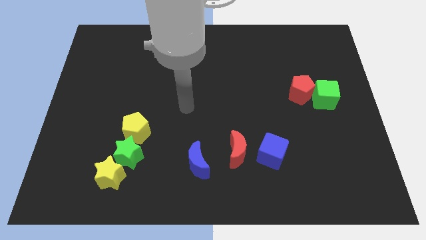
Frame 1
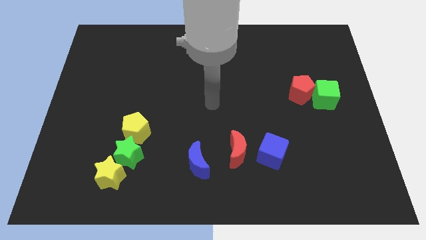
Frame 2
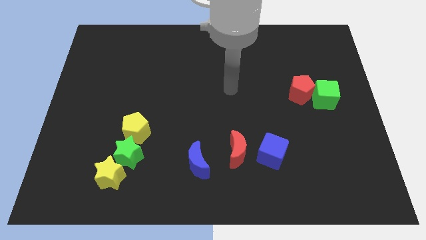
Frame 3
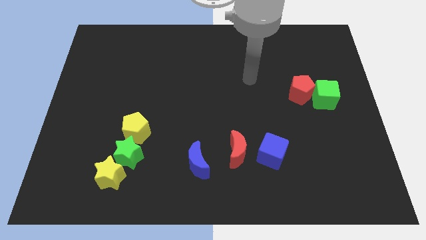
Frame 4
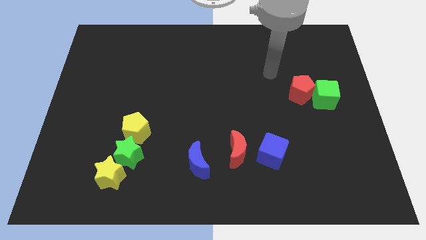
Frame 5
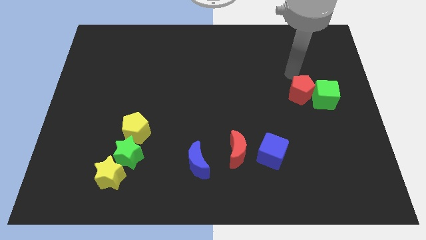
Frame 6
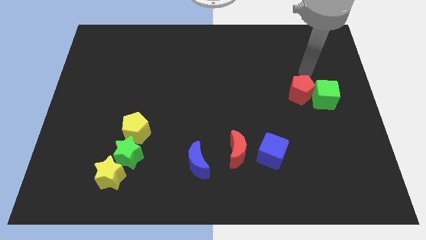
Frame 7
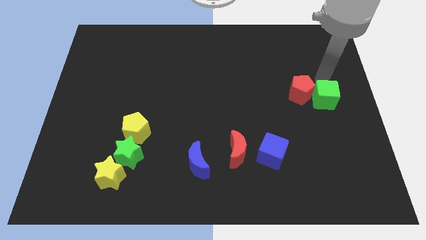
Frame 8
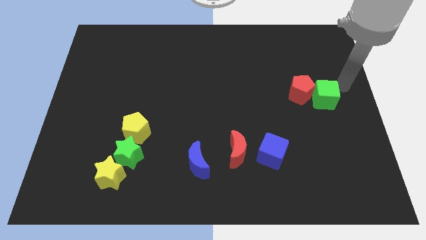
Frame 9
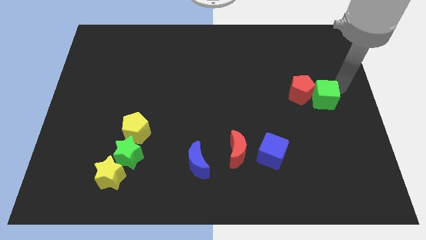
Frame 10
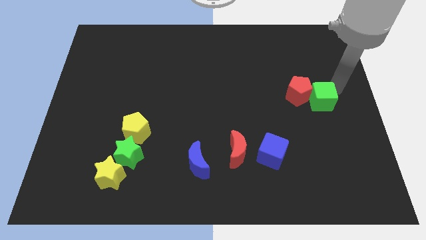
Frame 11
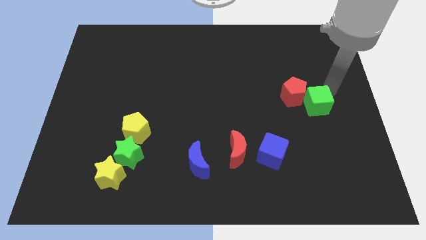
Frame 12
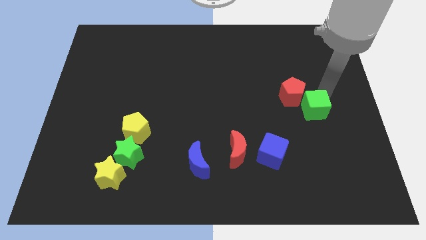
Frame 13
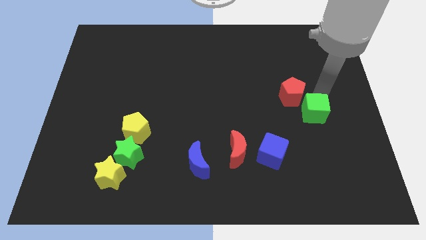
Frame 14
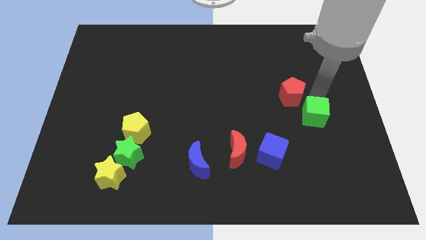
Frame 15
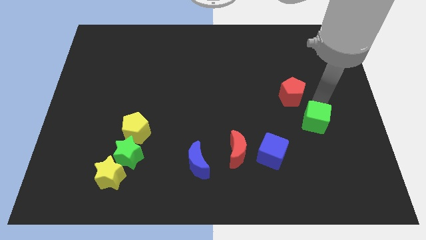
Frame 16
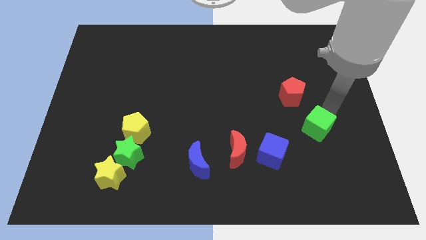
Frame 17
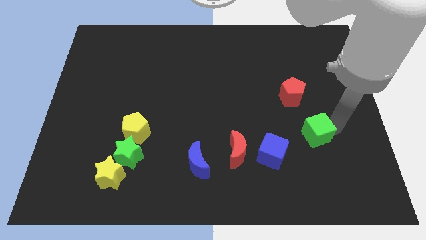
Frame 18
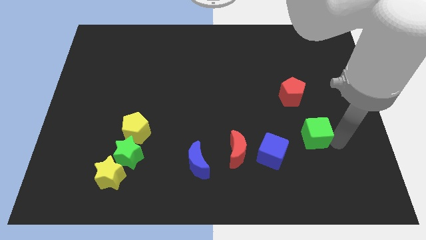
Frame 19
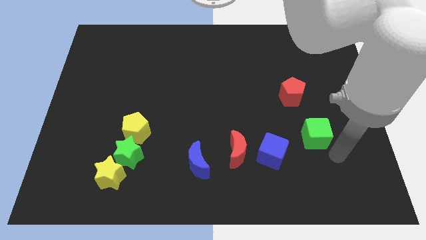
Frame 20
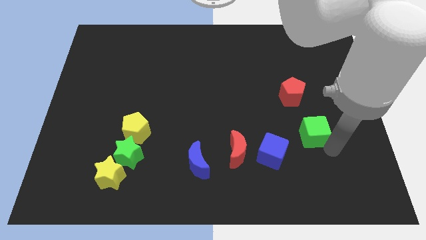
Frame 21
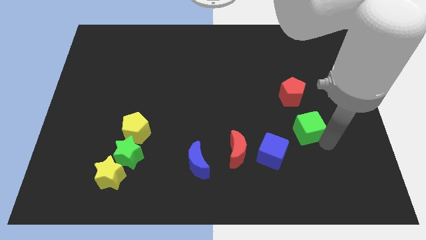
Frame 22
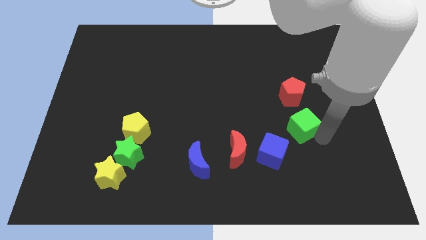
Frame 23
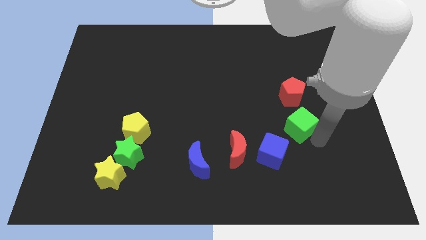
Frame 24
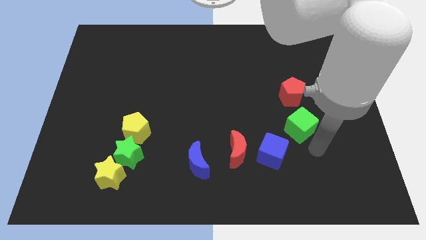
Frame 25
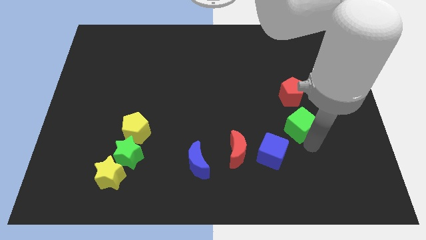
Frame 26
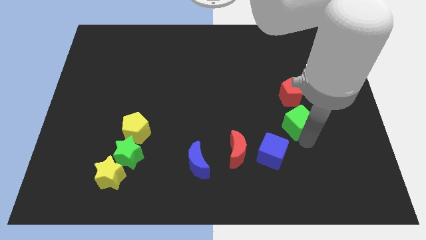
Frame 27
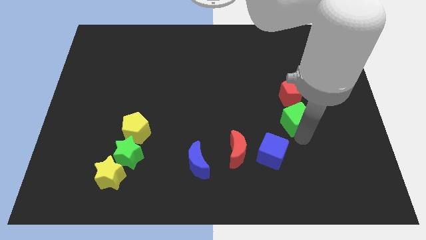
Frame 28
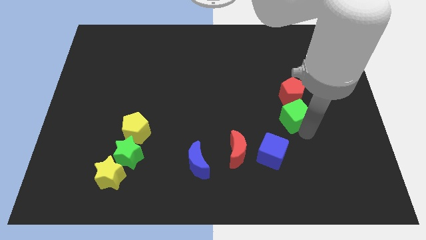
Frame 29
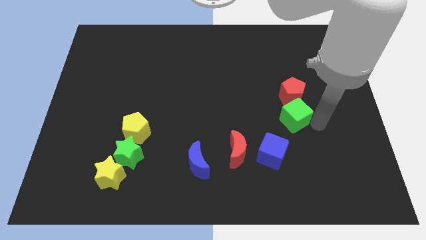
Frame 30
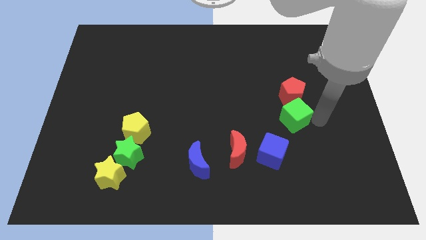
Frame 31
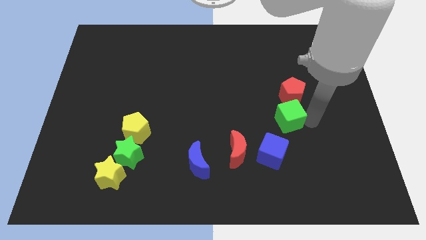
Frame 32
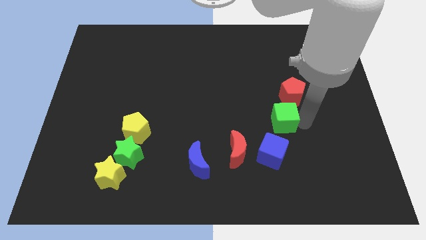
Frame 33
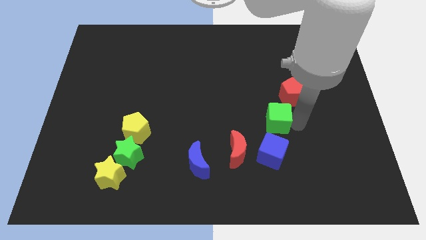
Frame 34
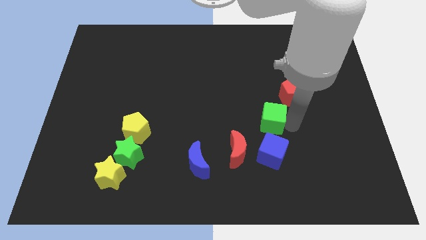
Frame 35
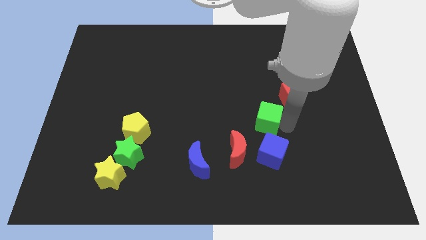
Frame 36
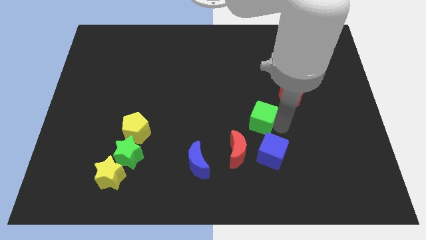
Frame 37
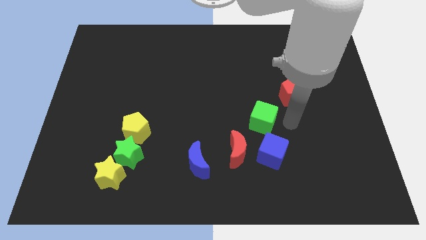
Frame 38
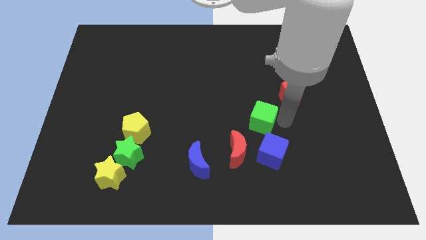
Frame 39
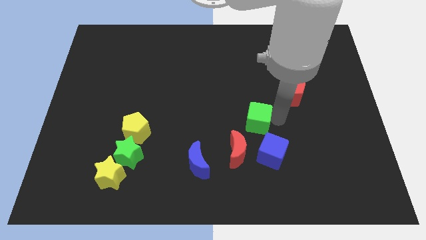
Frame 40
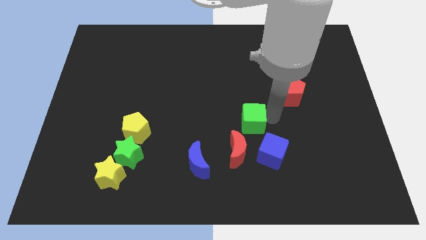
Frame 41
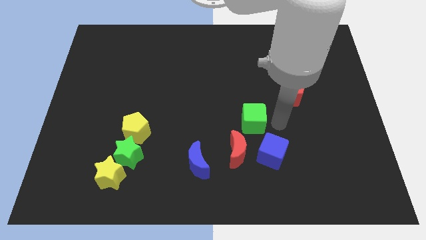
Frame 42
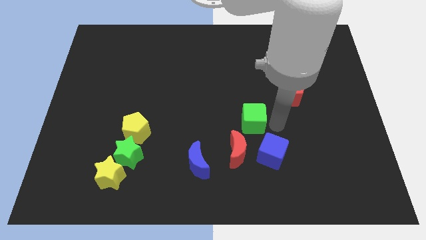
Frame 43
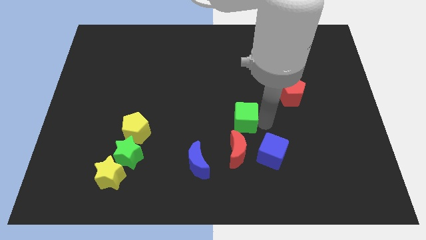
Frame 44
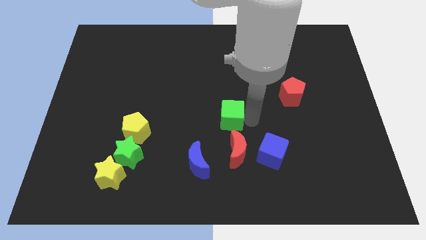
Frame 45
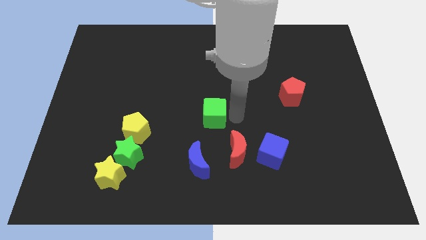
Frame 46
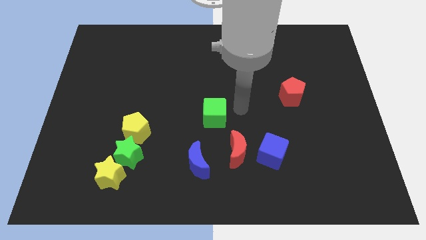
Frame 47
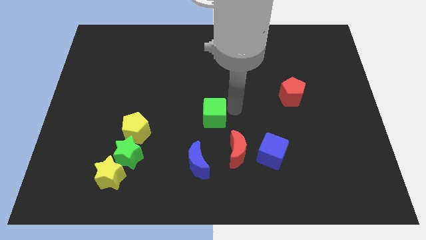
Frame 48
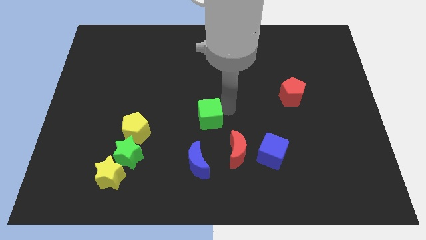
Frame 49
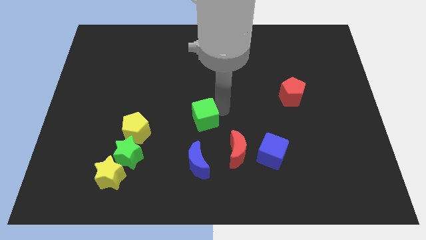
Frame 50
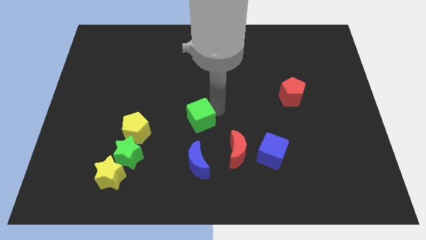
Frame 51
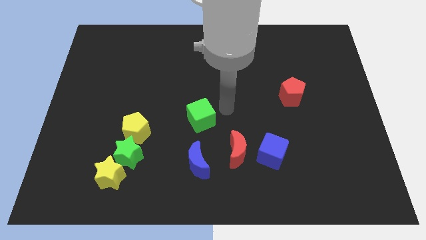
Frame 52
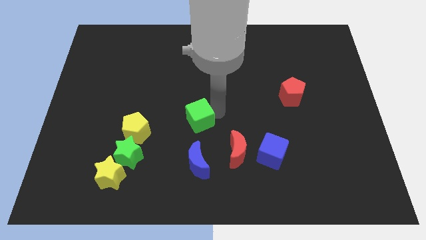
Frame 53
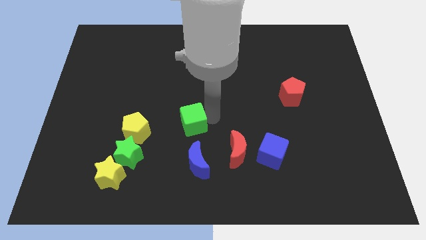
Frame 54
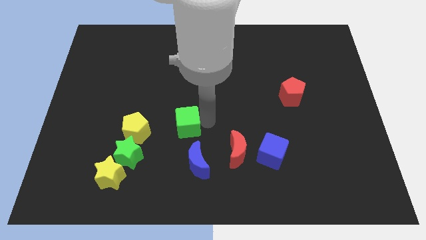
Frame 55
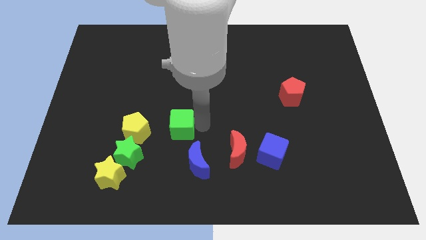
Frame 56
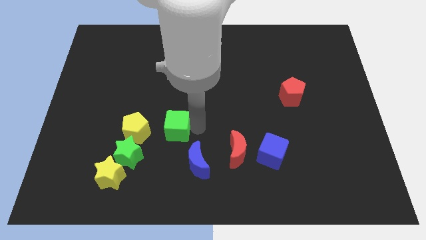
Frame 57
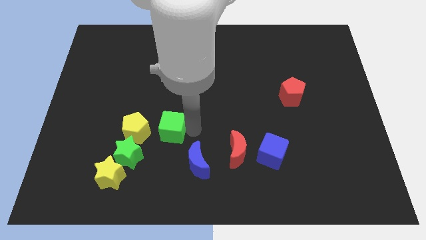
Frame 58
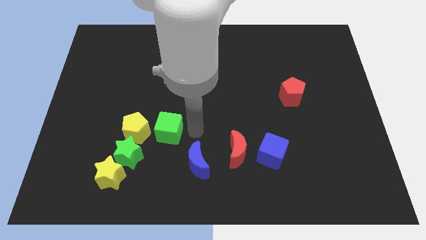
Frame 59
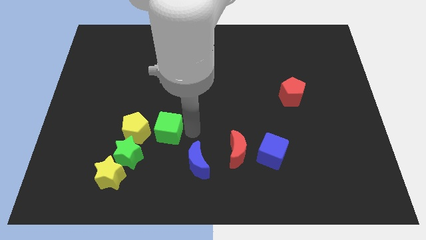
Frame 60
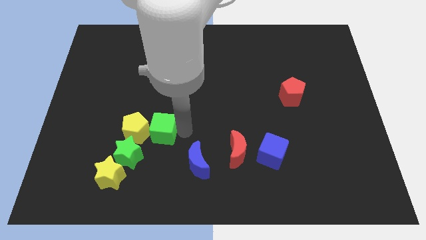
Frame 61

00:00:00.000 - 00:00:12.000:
push the green cube to the yellow pentagon

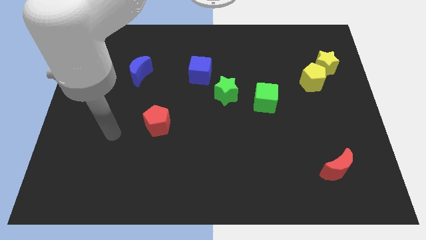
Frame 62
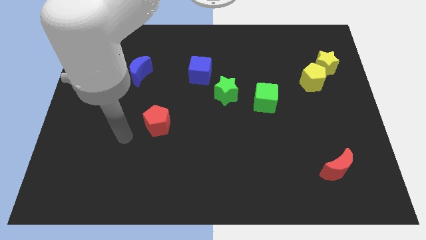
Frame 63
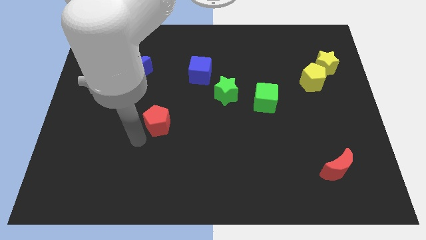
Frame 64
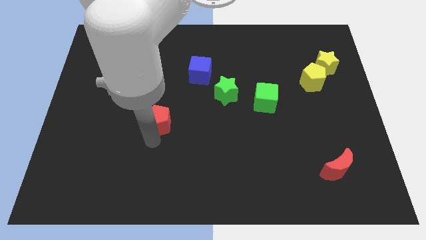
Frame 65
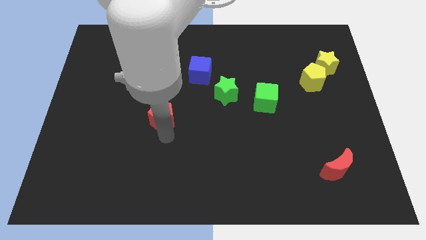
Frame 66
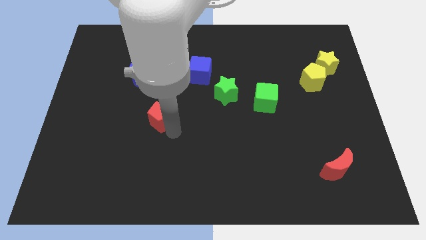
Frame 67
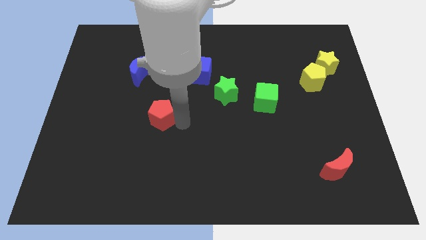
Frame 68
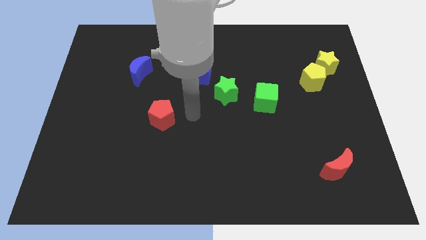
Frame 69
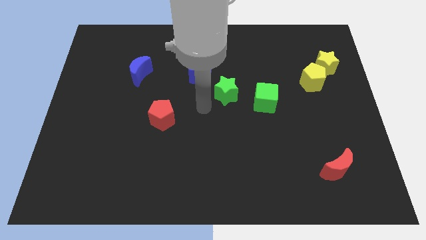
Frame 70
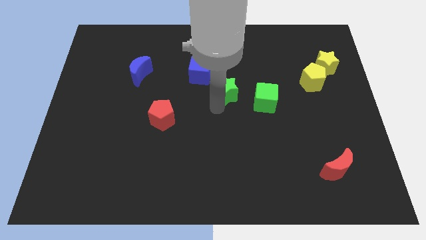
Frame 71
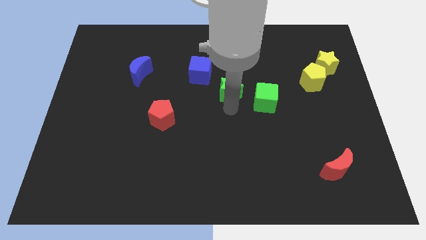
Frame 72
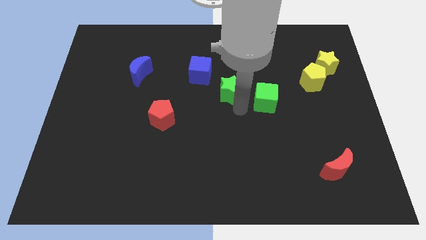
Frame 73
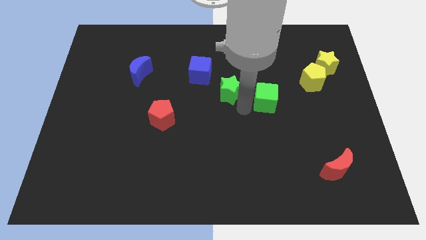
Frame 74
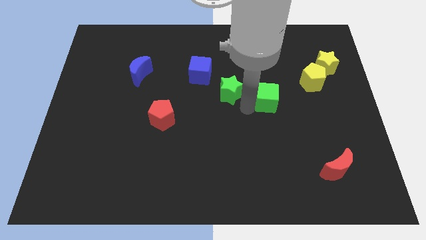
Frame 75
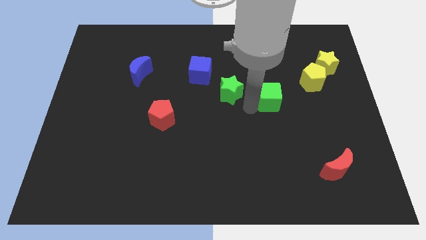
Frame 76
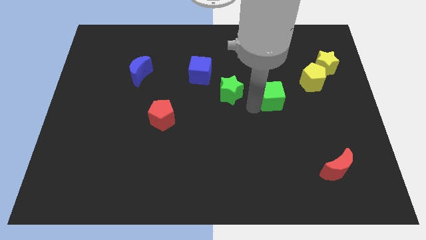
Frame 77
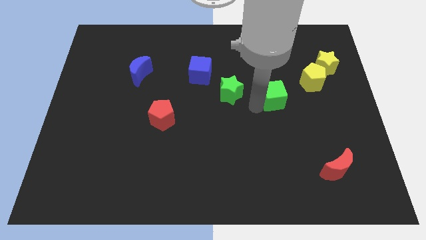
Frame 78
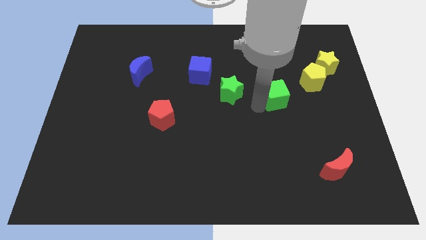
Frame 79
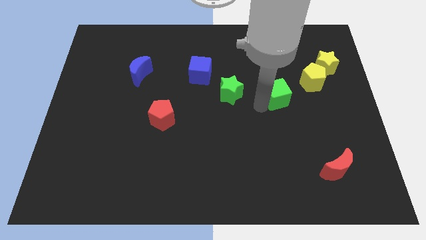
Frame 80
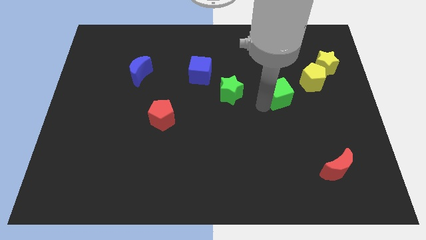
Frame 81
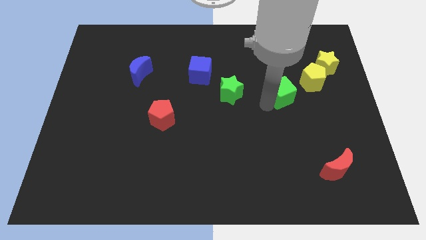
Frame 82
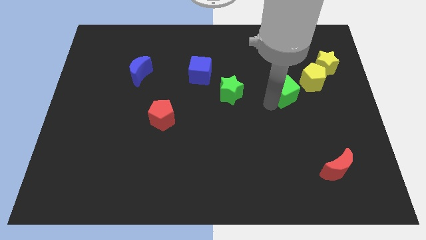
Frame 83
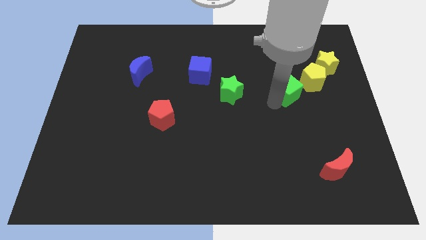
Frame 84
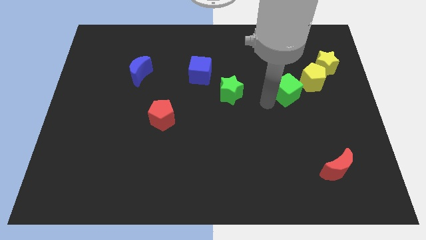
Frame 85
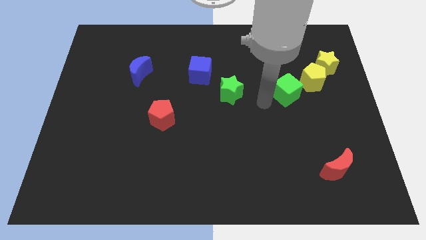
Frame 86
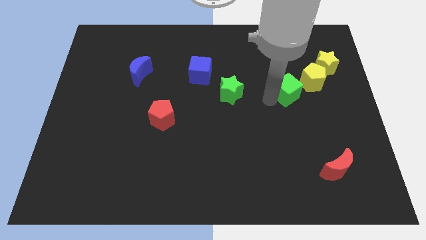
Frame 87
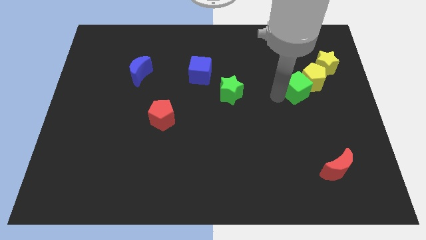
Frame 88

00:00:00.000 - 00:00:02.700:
move the green cube next to the yellow pentagon
